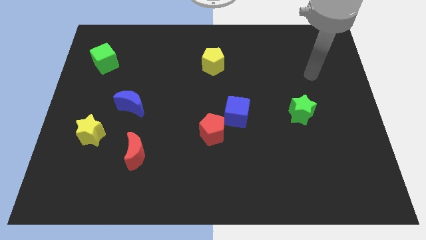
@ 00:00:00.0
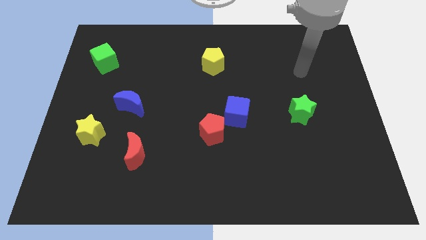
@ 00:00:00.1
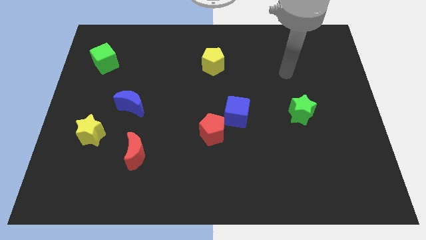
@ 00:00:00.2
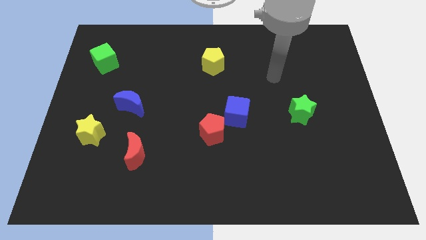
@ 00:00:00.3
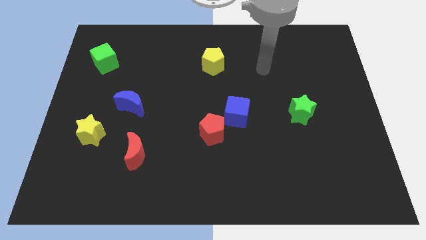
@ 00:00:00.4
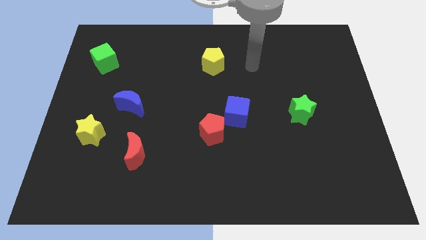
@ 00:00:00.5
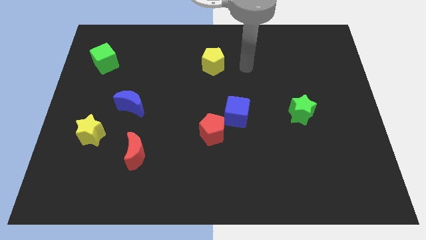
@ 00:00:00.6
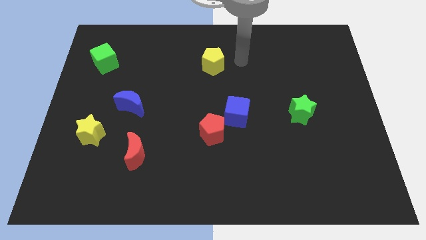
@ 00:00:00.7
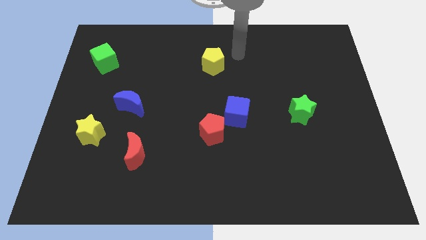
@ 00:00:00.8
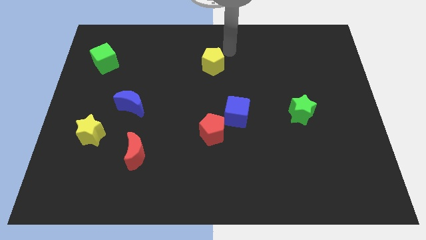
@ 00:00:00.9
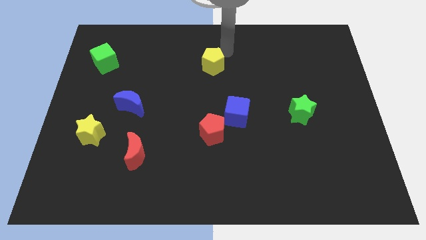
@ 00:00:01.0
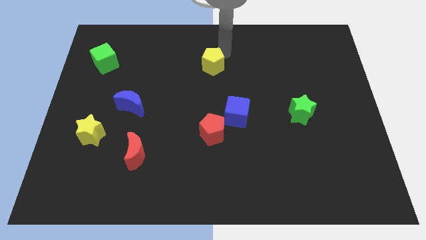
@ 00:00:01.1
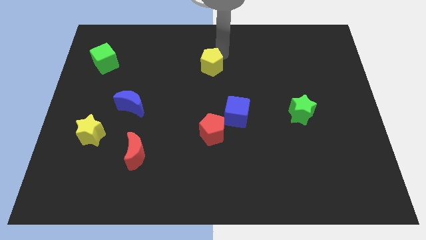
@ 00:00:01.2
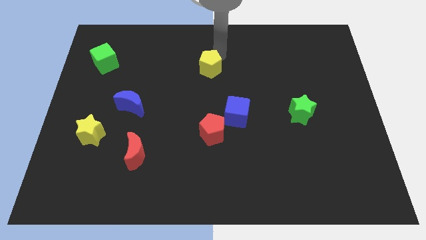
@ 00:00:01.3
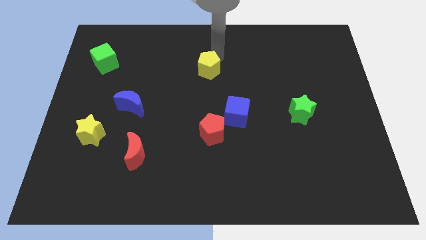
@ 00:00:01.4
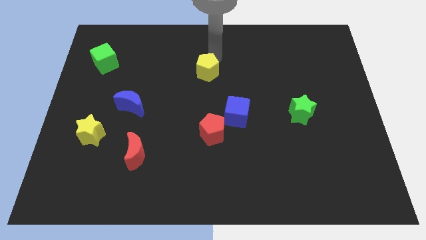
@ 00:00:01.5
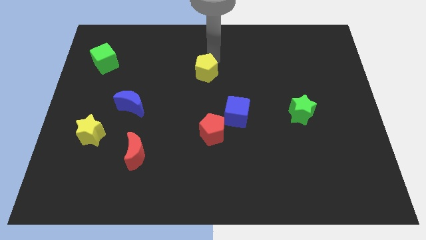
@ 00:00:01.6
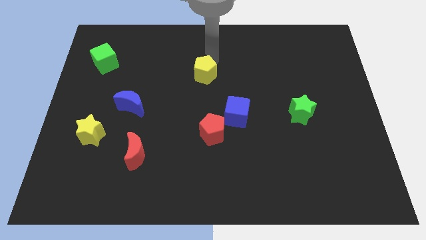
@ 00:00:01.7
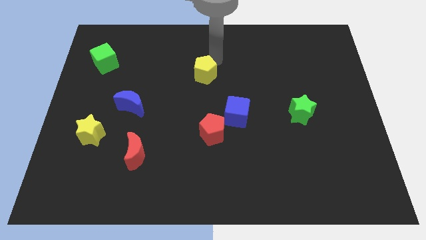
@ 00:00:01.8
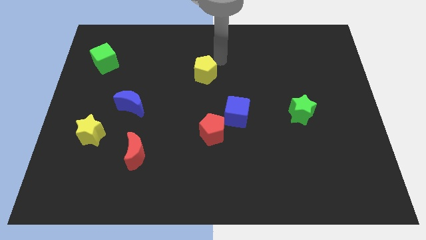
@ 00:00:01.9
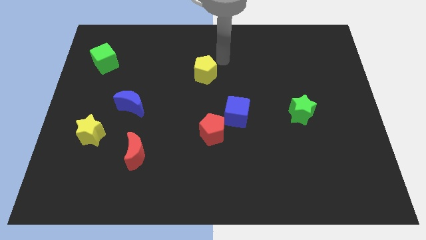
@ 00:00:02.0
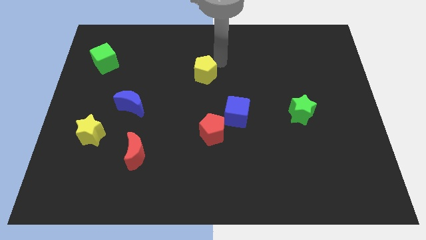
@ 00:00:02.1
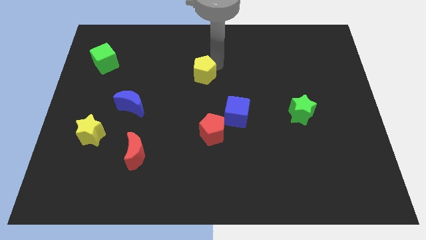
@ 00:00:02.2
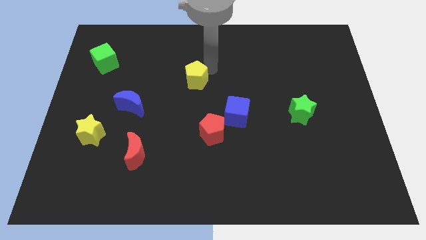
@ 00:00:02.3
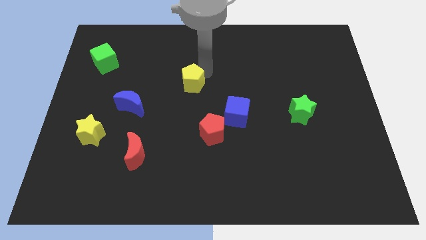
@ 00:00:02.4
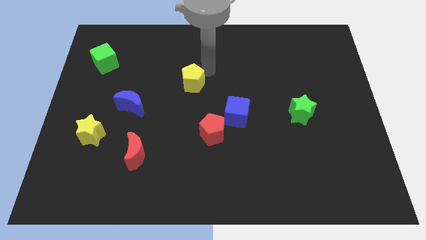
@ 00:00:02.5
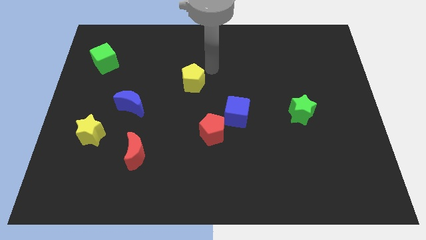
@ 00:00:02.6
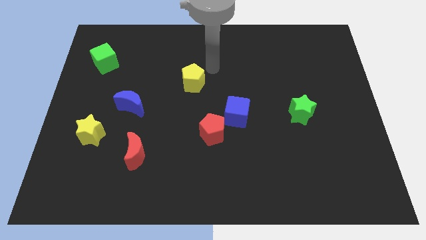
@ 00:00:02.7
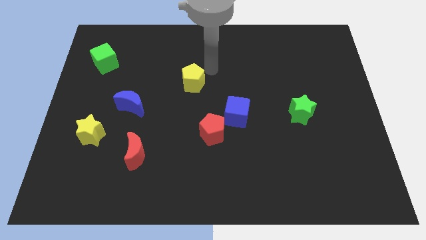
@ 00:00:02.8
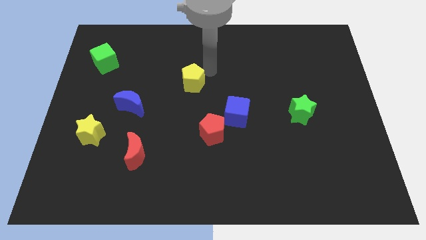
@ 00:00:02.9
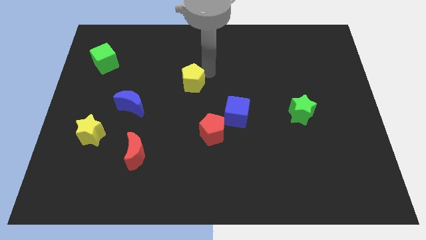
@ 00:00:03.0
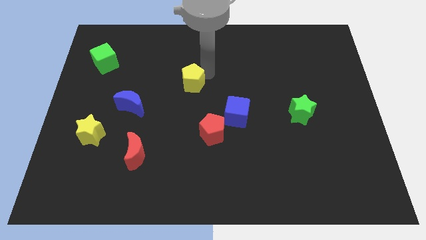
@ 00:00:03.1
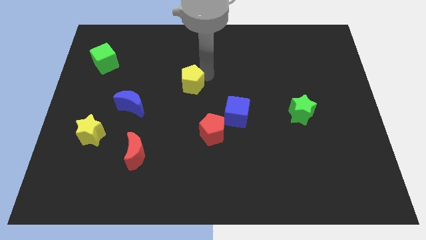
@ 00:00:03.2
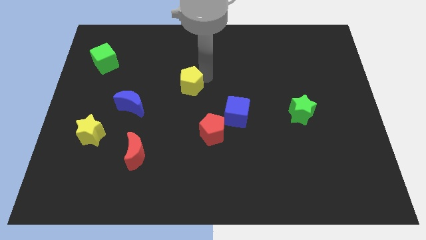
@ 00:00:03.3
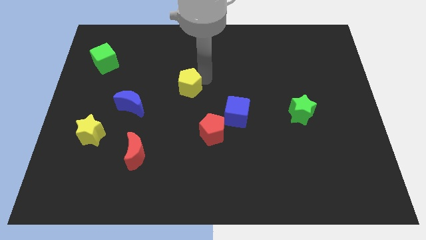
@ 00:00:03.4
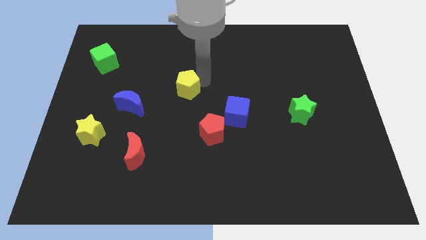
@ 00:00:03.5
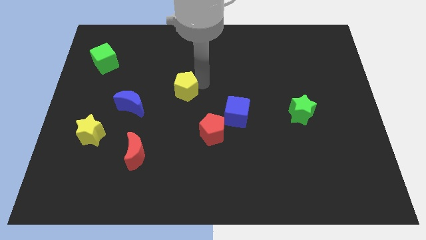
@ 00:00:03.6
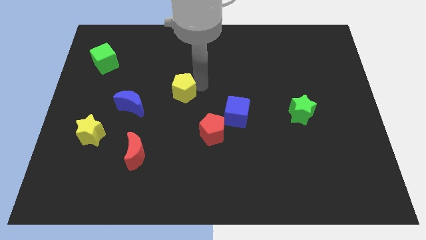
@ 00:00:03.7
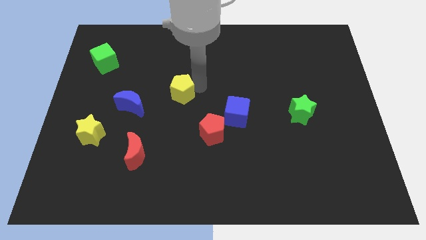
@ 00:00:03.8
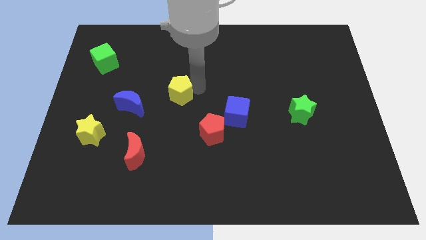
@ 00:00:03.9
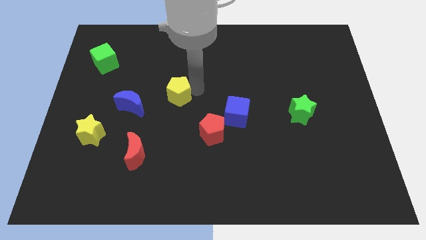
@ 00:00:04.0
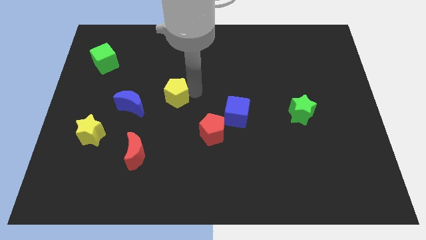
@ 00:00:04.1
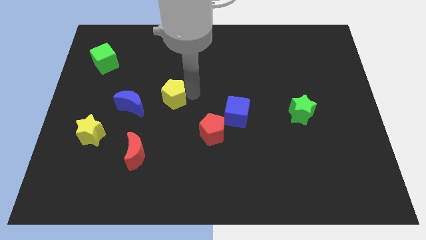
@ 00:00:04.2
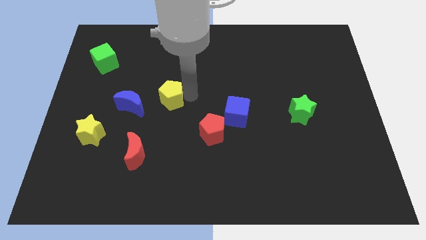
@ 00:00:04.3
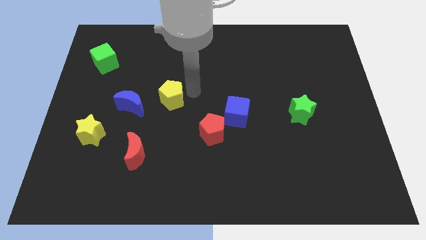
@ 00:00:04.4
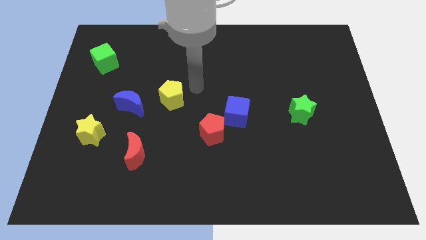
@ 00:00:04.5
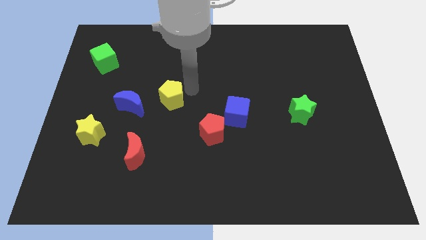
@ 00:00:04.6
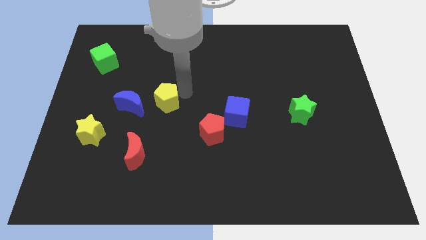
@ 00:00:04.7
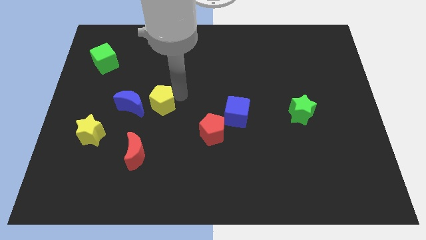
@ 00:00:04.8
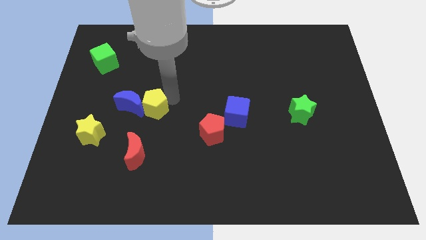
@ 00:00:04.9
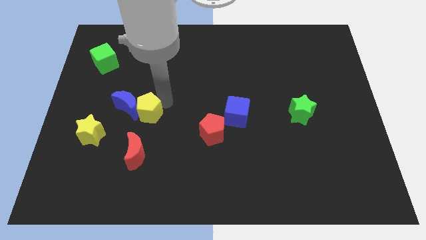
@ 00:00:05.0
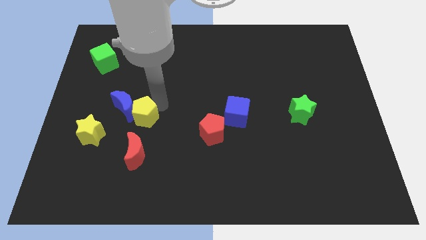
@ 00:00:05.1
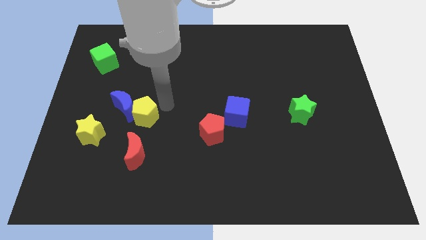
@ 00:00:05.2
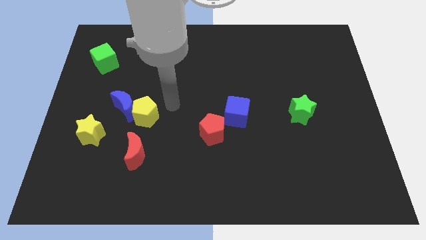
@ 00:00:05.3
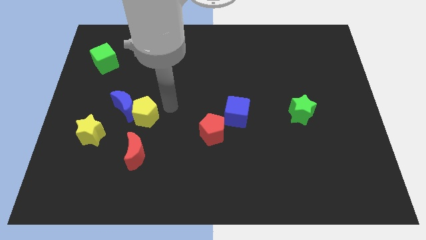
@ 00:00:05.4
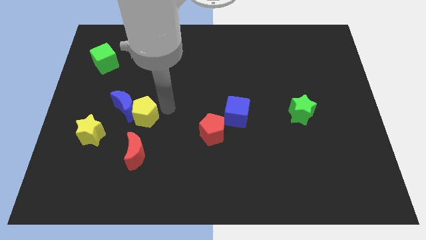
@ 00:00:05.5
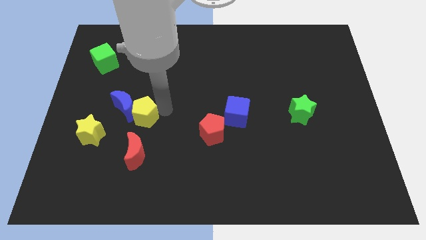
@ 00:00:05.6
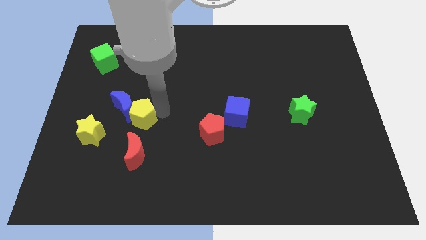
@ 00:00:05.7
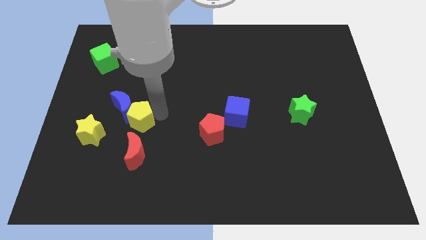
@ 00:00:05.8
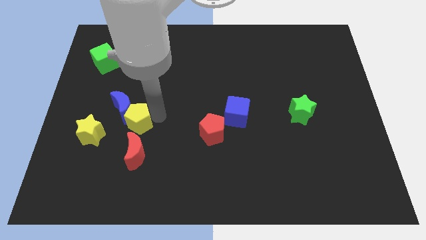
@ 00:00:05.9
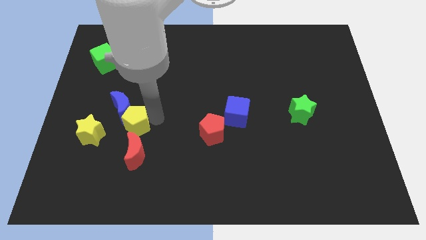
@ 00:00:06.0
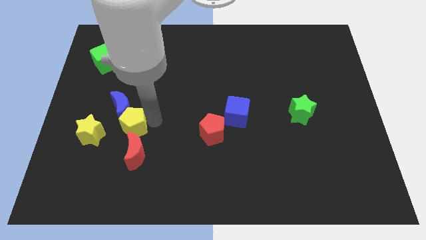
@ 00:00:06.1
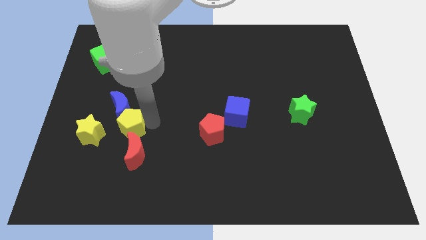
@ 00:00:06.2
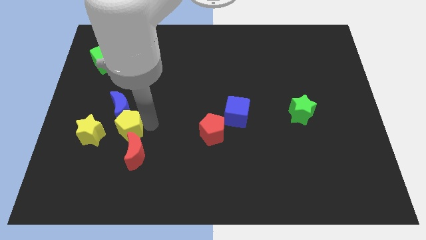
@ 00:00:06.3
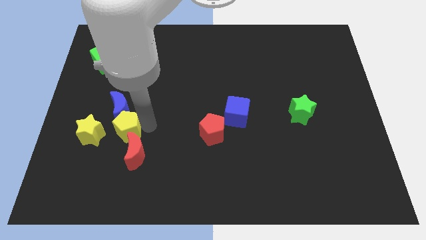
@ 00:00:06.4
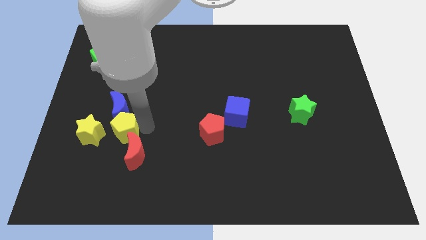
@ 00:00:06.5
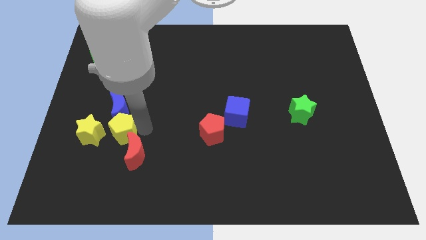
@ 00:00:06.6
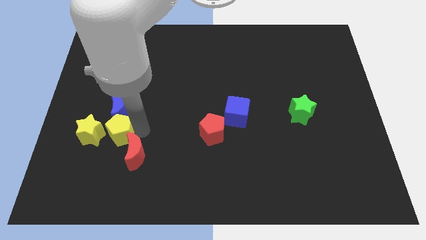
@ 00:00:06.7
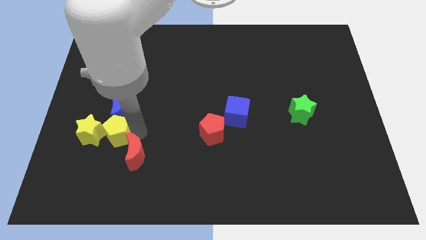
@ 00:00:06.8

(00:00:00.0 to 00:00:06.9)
slide the yellow pentagon next to the yellow star

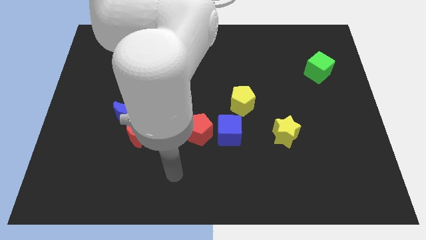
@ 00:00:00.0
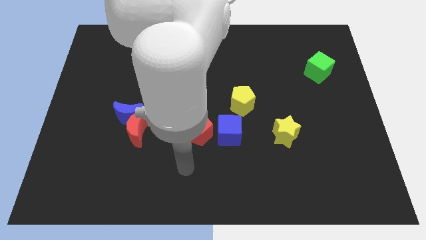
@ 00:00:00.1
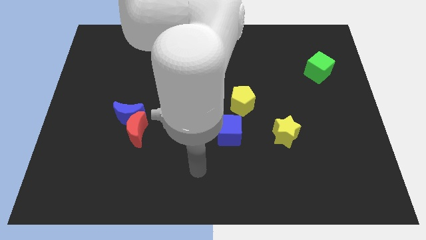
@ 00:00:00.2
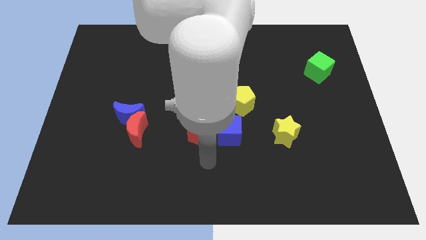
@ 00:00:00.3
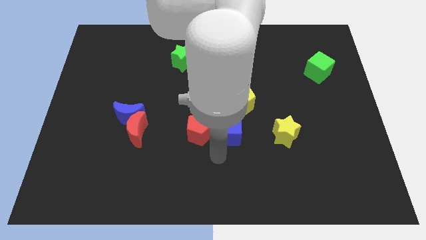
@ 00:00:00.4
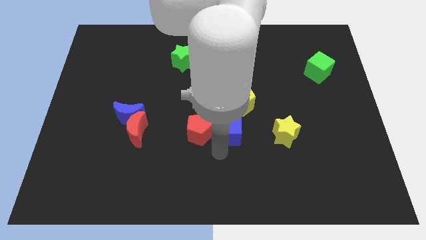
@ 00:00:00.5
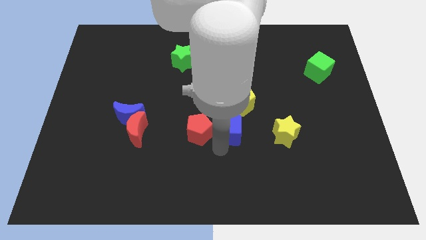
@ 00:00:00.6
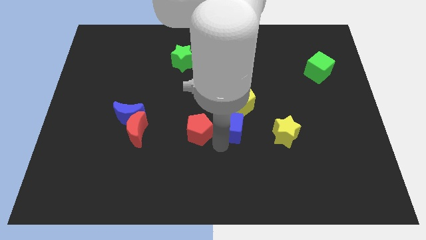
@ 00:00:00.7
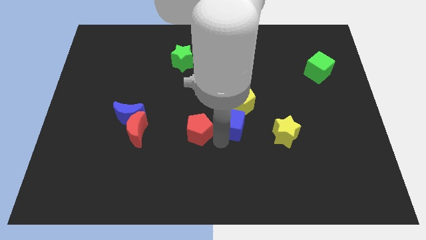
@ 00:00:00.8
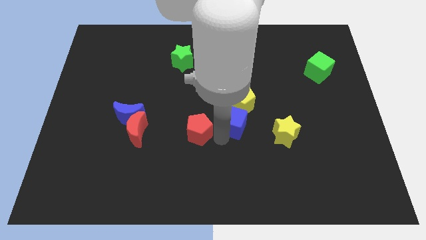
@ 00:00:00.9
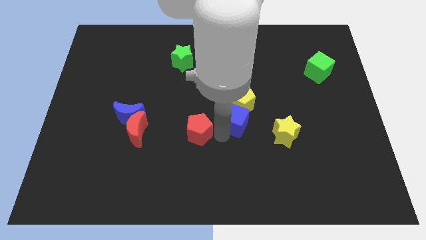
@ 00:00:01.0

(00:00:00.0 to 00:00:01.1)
slide the blue cube to the yellow pentagon
